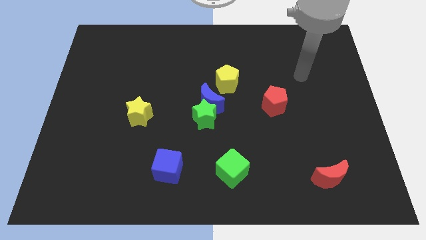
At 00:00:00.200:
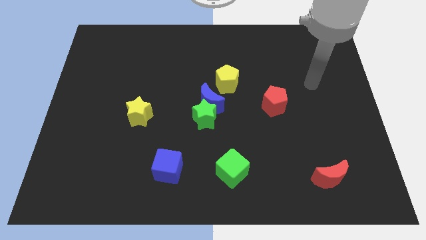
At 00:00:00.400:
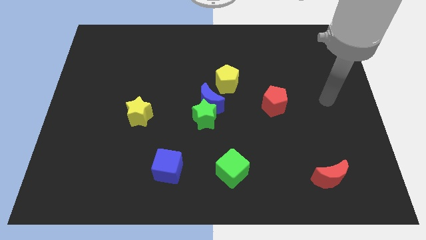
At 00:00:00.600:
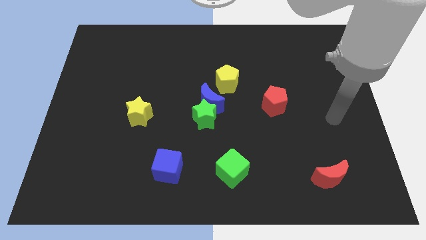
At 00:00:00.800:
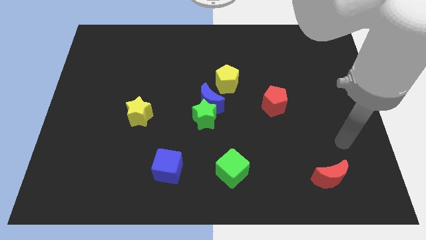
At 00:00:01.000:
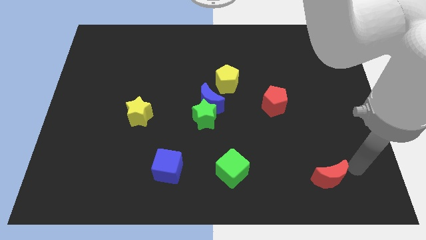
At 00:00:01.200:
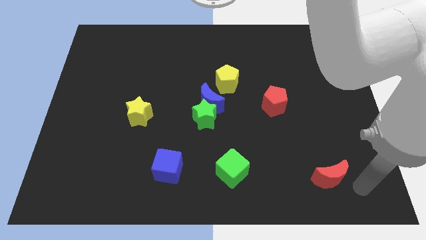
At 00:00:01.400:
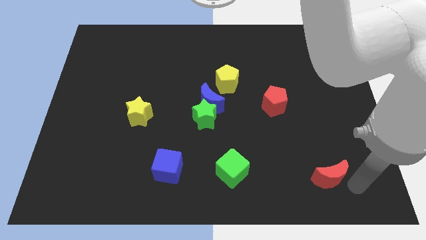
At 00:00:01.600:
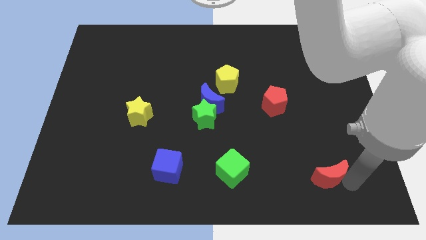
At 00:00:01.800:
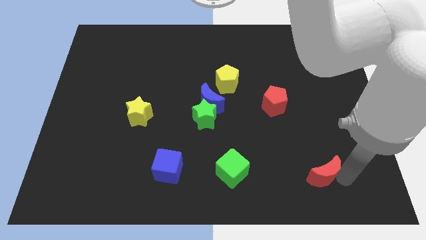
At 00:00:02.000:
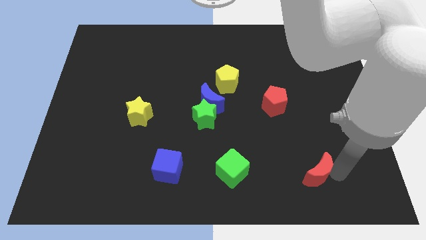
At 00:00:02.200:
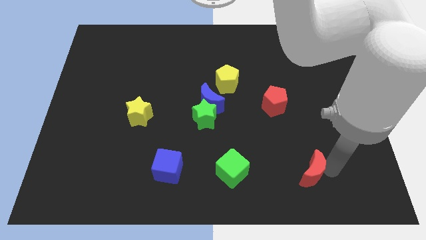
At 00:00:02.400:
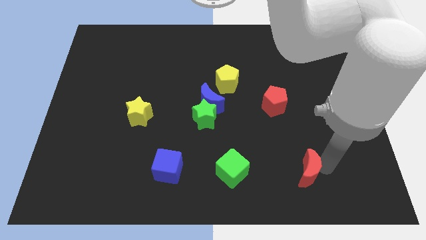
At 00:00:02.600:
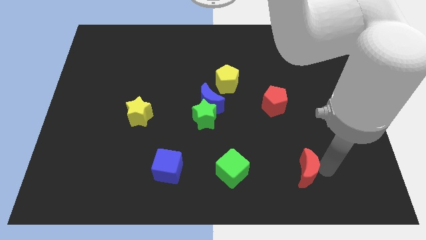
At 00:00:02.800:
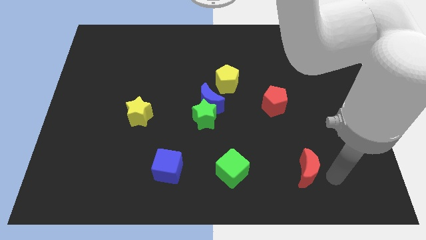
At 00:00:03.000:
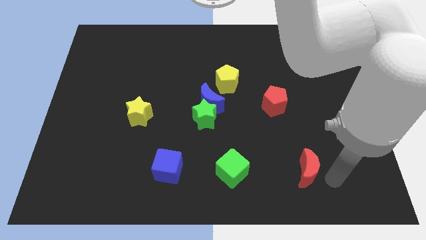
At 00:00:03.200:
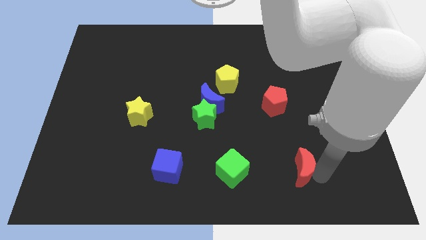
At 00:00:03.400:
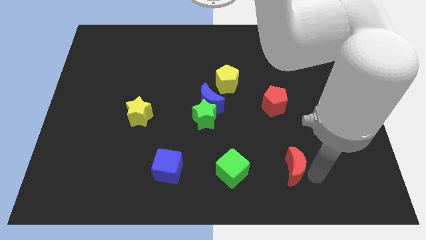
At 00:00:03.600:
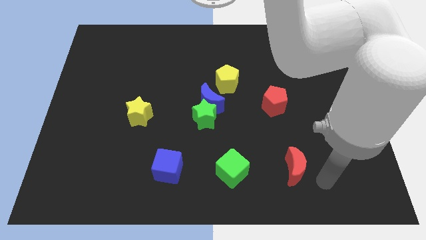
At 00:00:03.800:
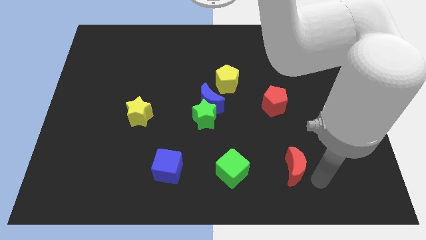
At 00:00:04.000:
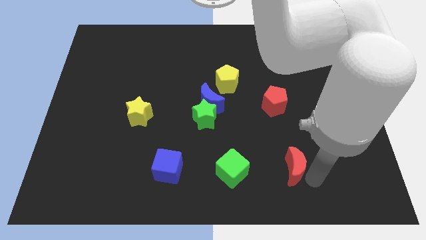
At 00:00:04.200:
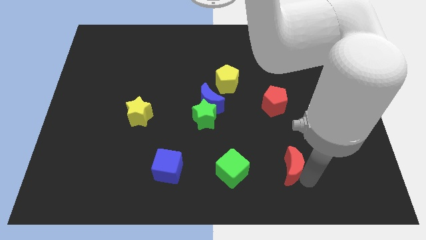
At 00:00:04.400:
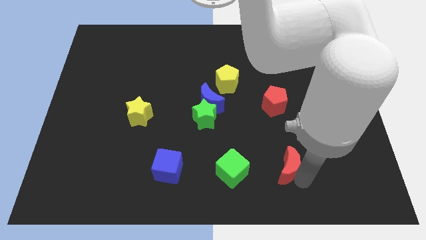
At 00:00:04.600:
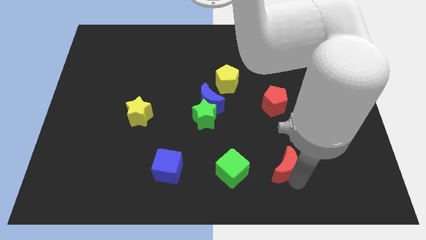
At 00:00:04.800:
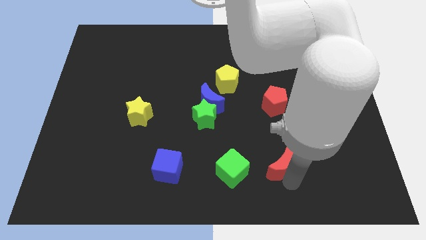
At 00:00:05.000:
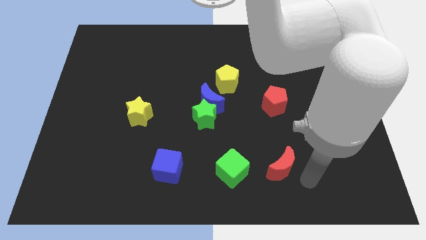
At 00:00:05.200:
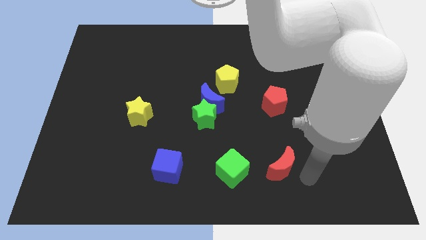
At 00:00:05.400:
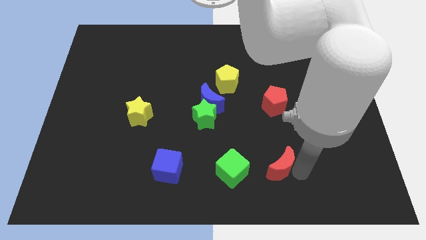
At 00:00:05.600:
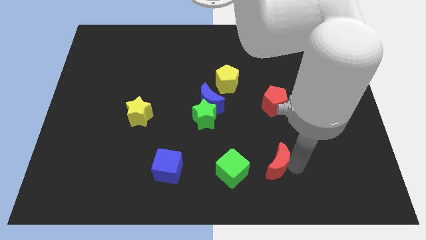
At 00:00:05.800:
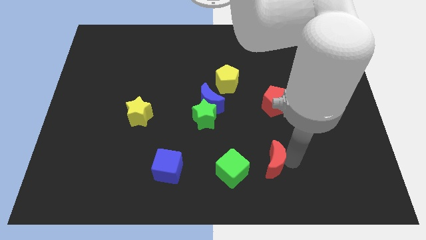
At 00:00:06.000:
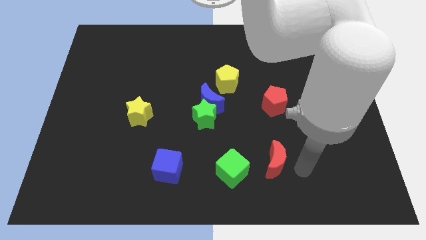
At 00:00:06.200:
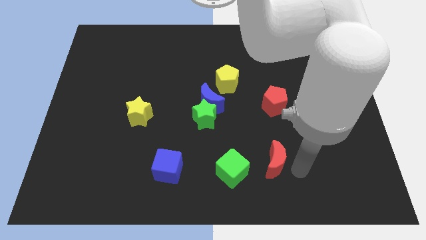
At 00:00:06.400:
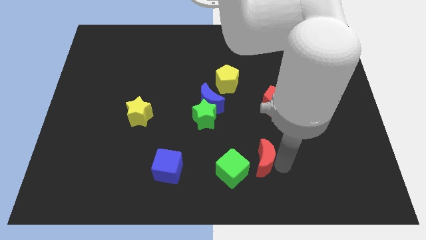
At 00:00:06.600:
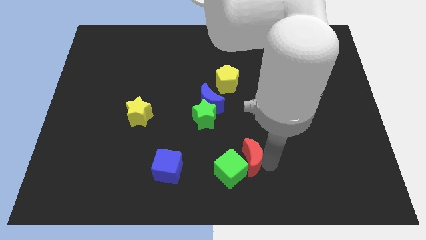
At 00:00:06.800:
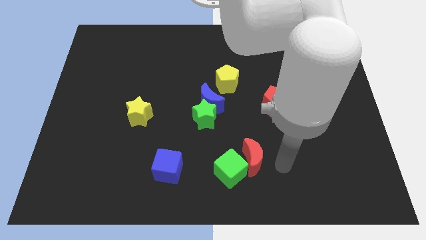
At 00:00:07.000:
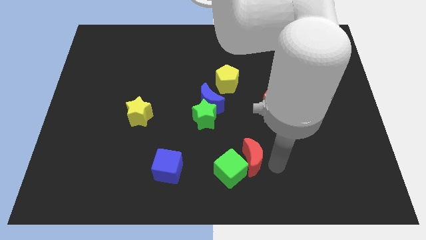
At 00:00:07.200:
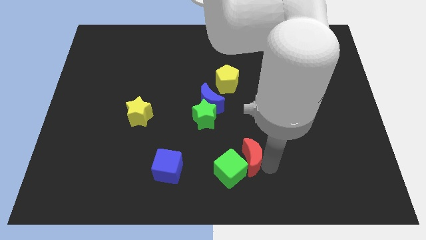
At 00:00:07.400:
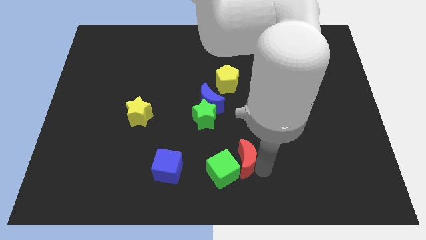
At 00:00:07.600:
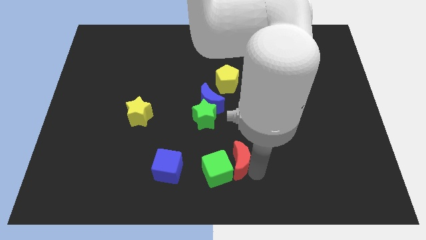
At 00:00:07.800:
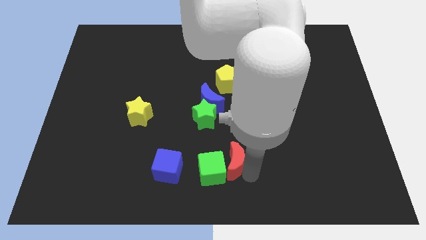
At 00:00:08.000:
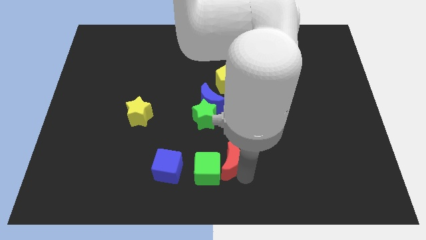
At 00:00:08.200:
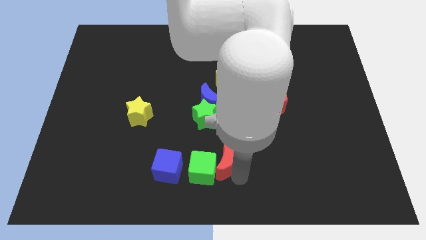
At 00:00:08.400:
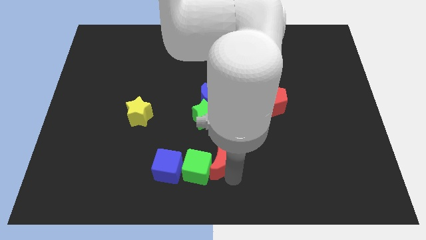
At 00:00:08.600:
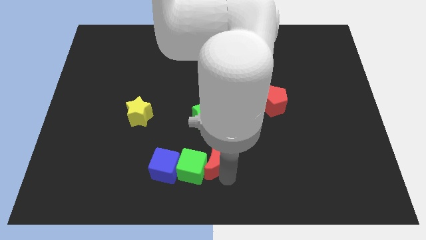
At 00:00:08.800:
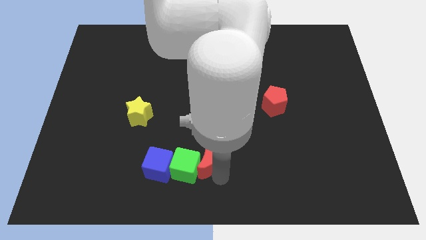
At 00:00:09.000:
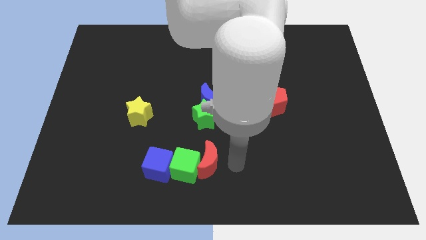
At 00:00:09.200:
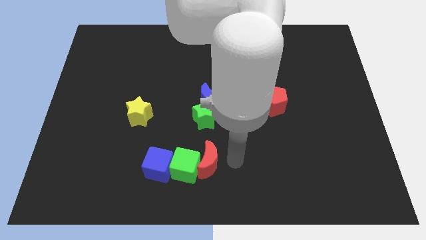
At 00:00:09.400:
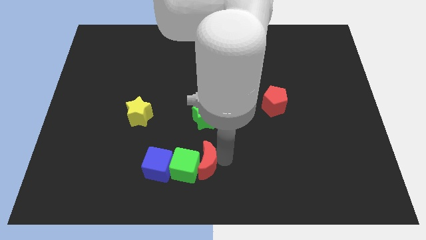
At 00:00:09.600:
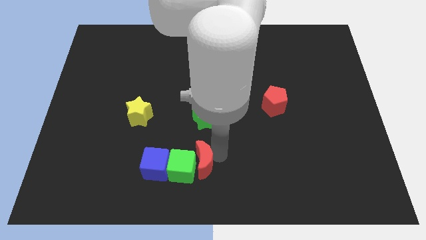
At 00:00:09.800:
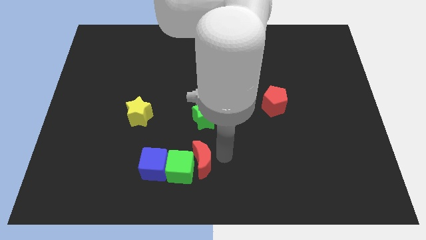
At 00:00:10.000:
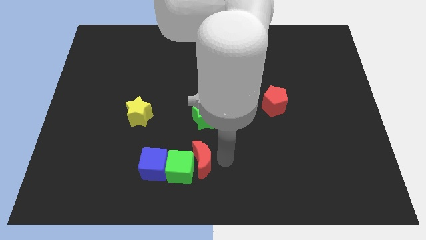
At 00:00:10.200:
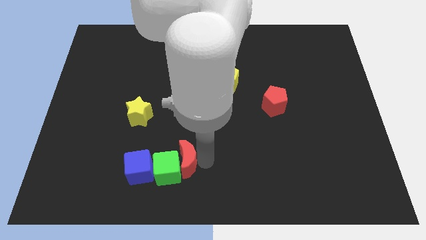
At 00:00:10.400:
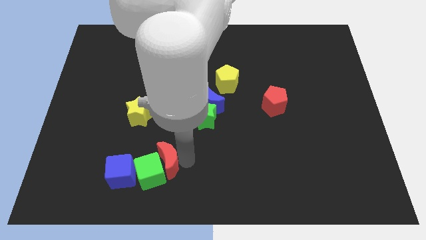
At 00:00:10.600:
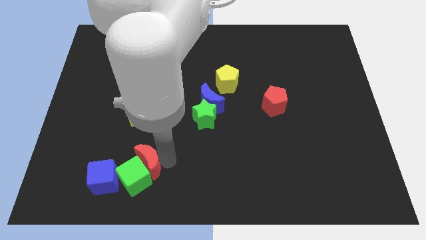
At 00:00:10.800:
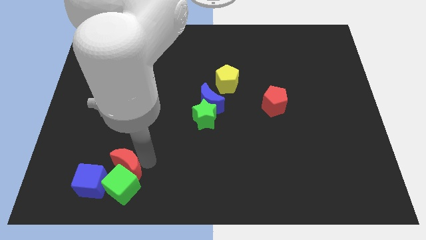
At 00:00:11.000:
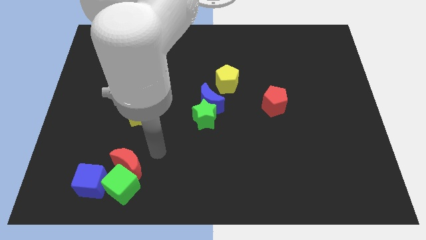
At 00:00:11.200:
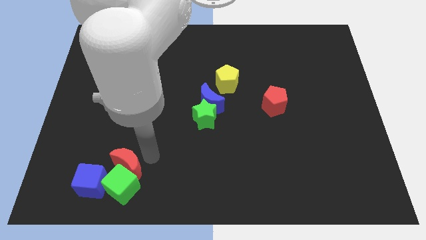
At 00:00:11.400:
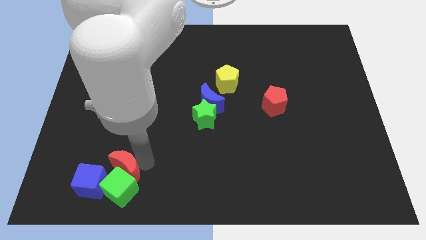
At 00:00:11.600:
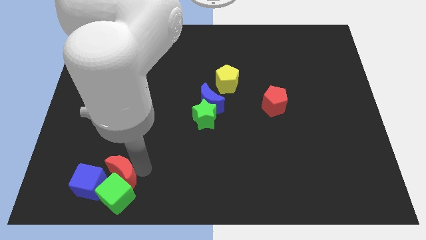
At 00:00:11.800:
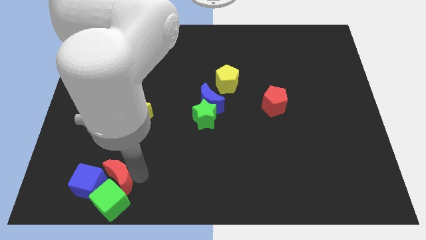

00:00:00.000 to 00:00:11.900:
push the red moon towards the blue cube

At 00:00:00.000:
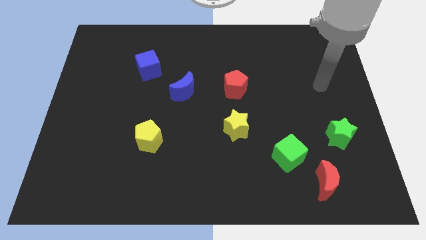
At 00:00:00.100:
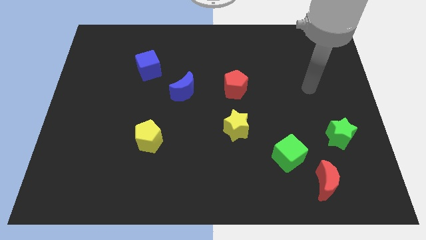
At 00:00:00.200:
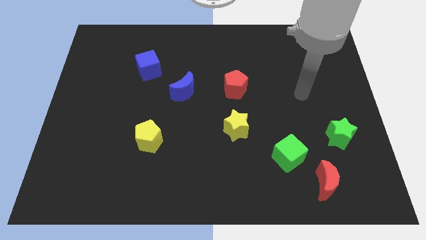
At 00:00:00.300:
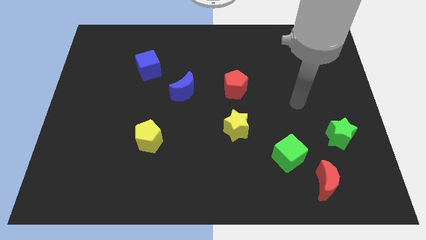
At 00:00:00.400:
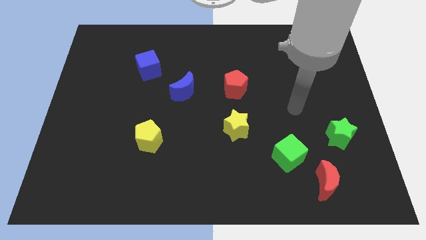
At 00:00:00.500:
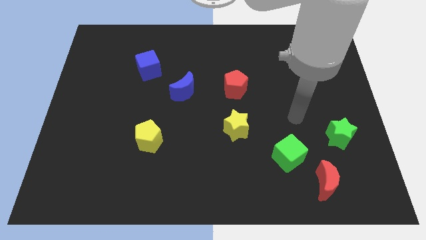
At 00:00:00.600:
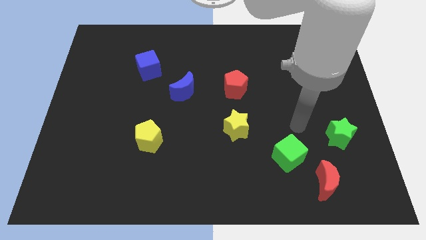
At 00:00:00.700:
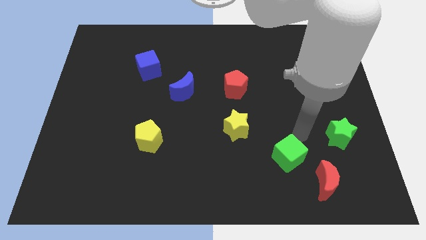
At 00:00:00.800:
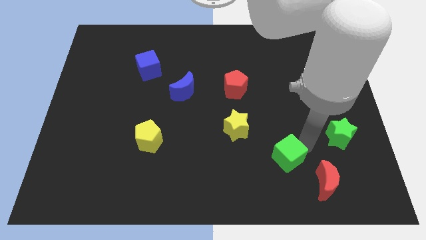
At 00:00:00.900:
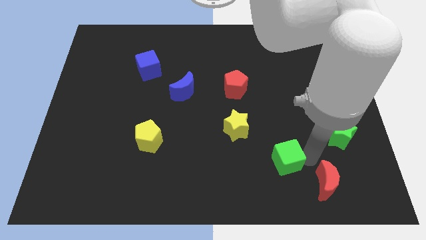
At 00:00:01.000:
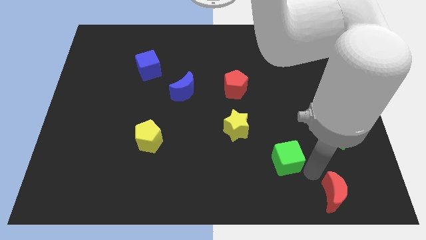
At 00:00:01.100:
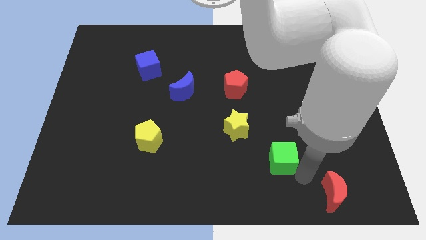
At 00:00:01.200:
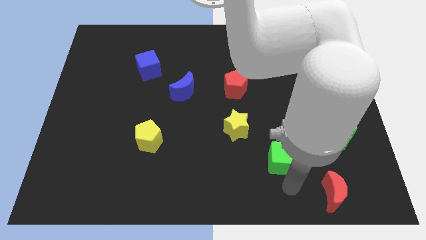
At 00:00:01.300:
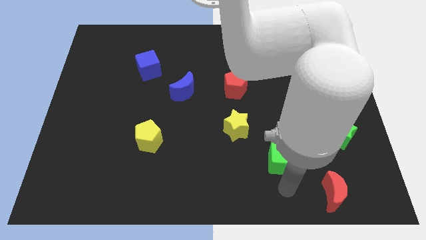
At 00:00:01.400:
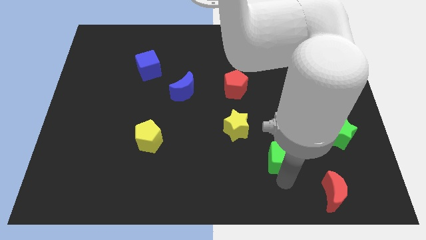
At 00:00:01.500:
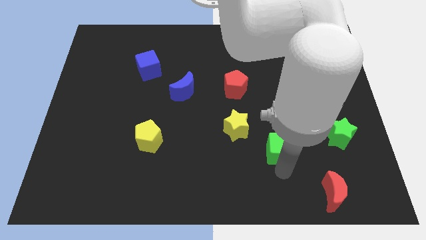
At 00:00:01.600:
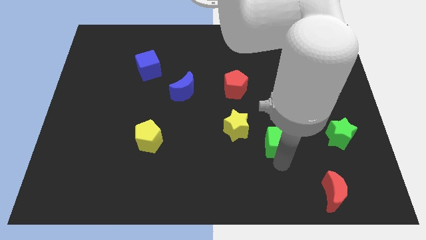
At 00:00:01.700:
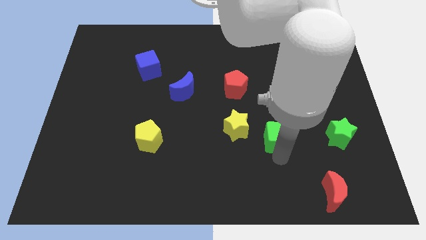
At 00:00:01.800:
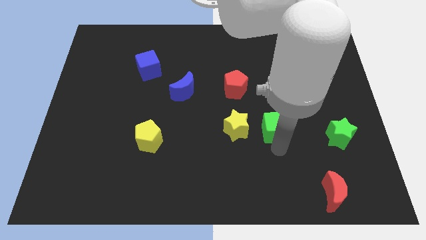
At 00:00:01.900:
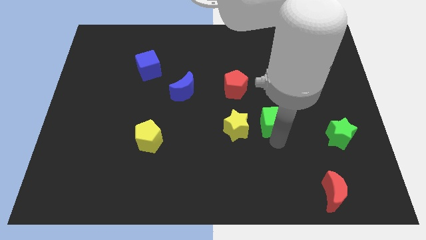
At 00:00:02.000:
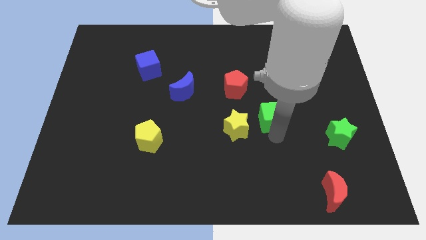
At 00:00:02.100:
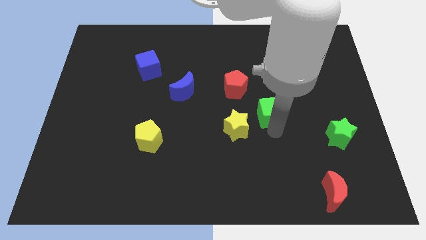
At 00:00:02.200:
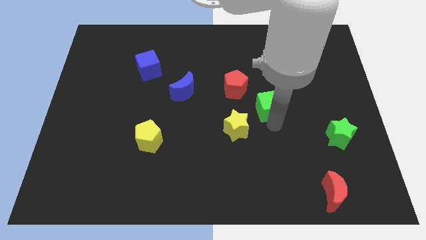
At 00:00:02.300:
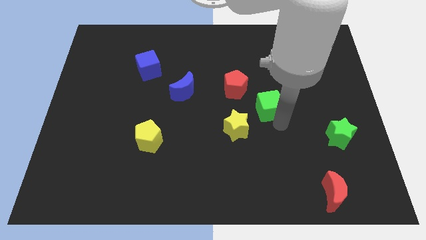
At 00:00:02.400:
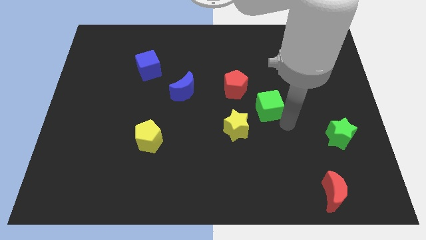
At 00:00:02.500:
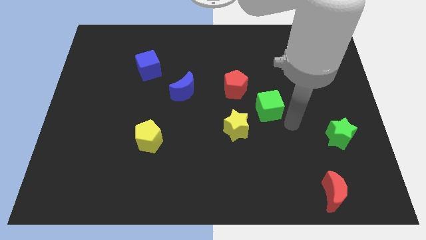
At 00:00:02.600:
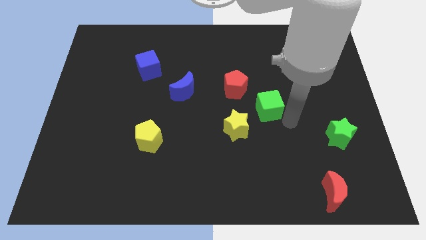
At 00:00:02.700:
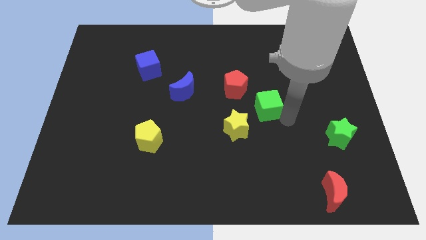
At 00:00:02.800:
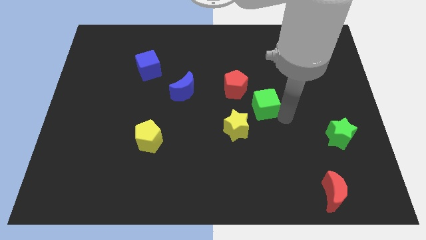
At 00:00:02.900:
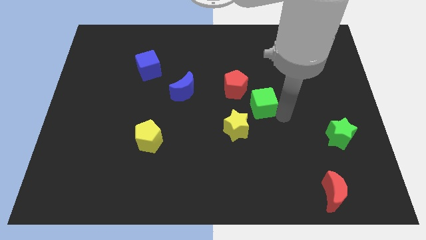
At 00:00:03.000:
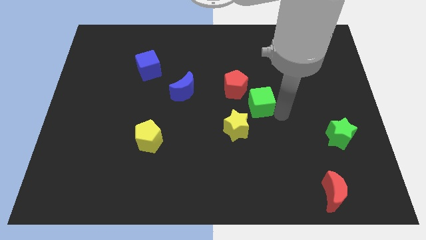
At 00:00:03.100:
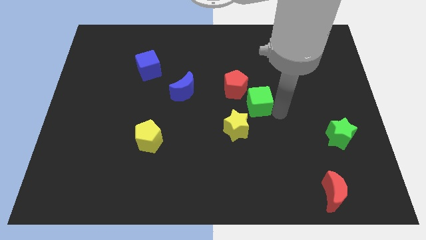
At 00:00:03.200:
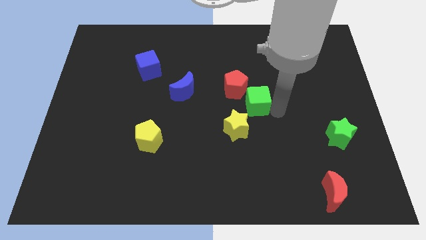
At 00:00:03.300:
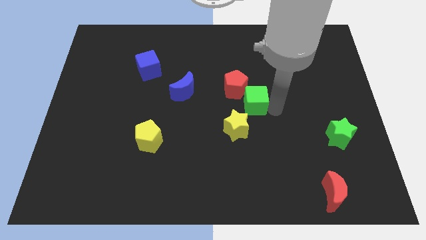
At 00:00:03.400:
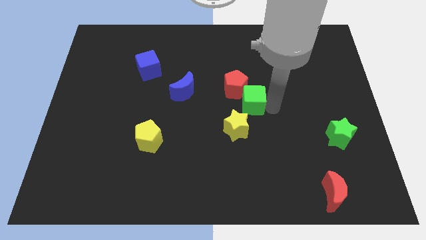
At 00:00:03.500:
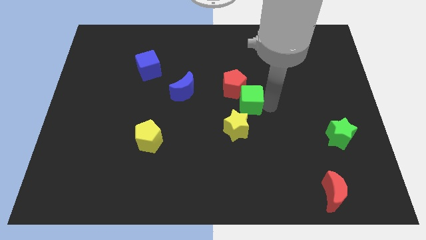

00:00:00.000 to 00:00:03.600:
move the green cube close to the red pentagon
